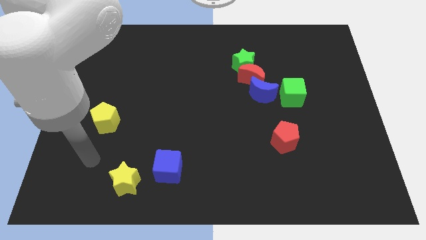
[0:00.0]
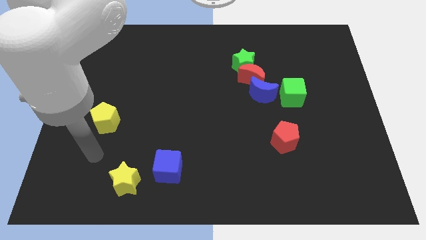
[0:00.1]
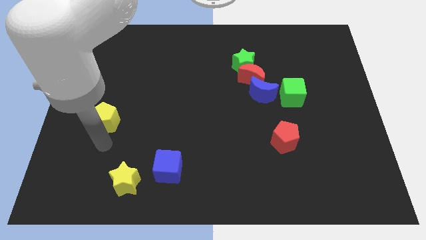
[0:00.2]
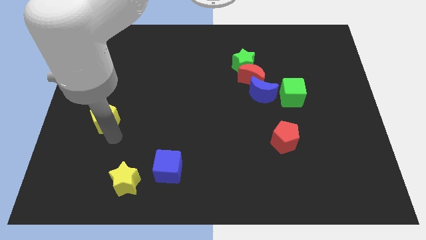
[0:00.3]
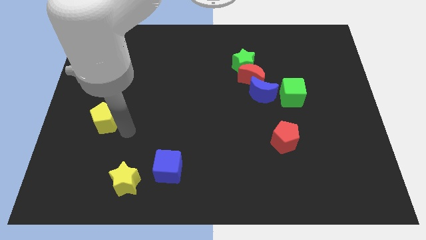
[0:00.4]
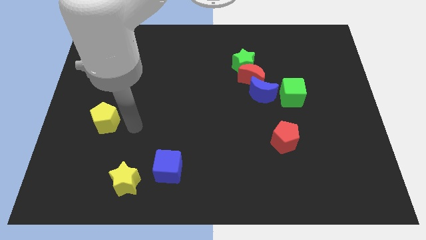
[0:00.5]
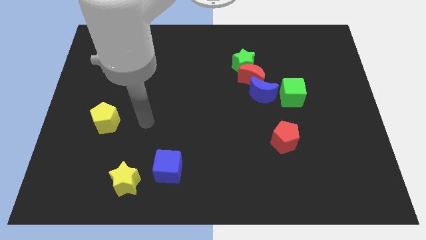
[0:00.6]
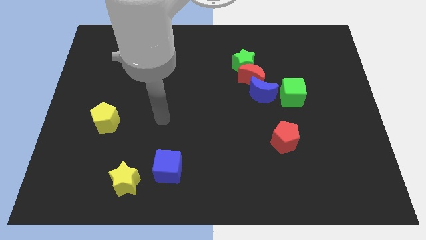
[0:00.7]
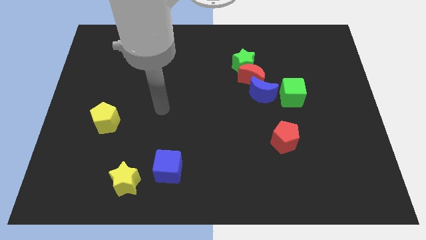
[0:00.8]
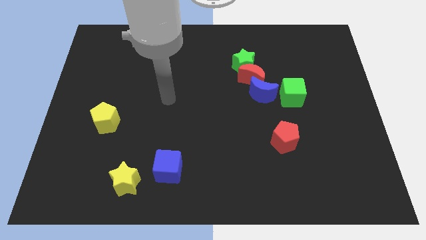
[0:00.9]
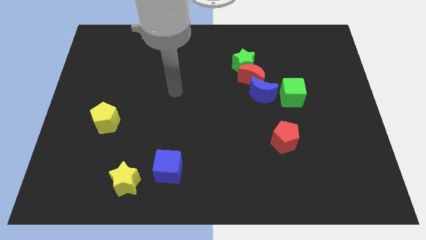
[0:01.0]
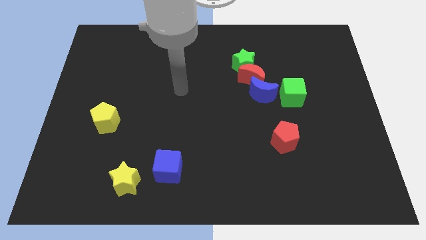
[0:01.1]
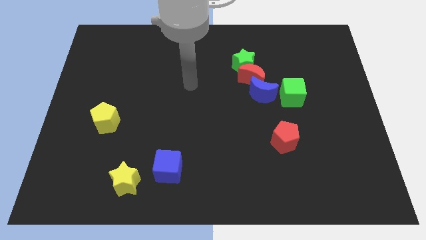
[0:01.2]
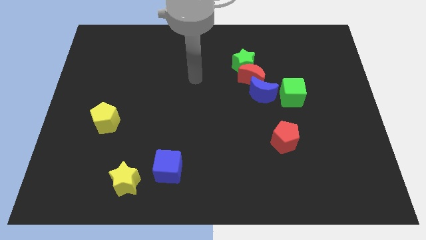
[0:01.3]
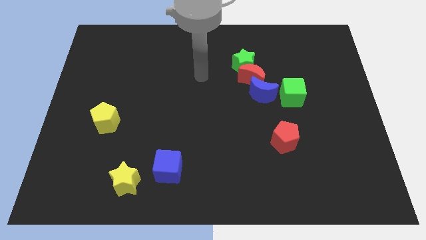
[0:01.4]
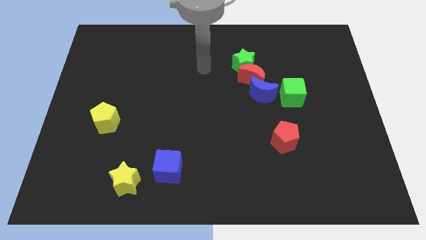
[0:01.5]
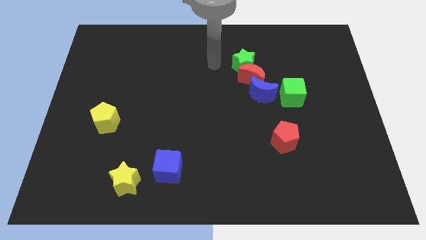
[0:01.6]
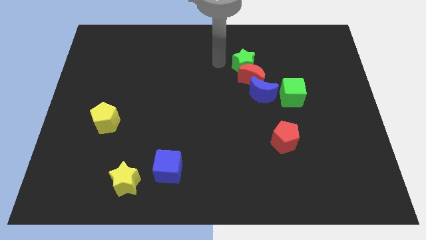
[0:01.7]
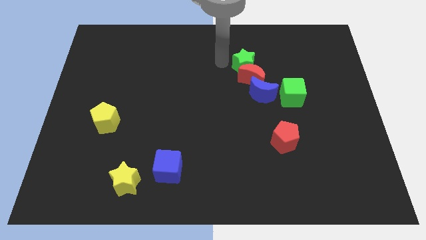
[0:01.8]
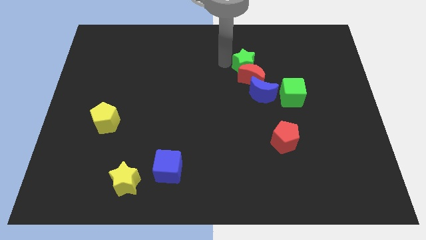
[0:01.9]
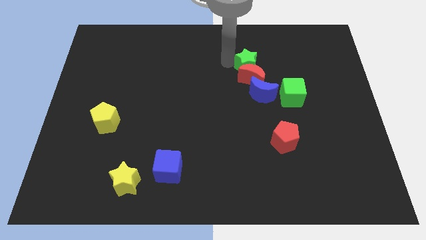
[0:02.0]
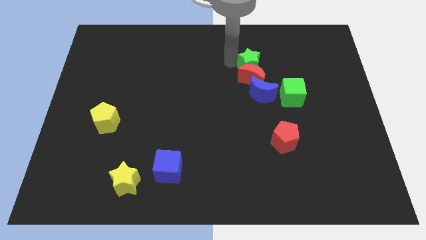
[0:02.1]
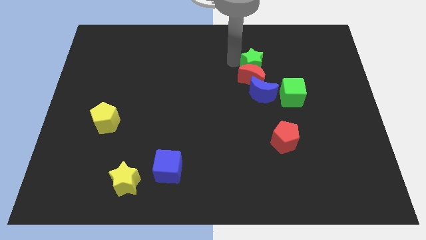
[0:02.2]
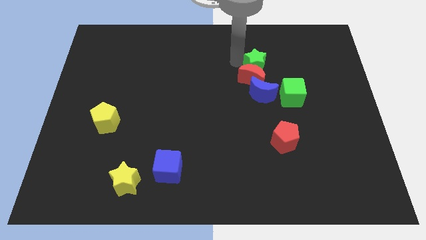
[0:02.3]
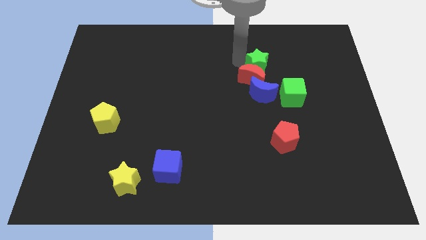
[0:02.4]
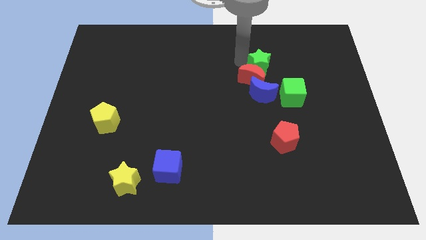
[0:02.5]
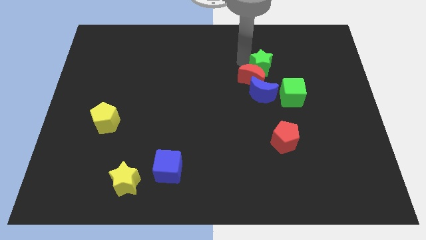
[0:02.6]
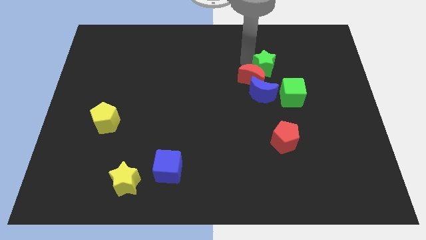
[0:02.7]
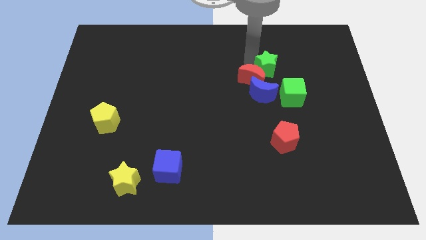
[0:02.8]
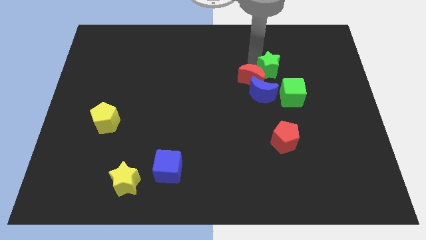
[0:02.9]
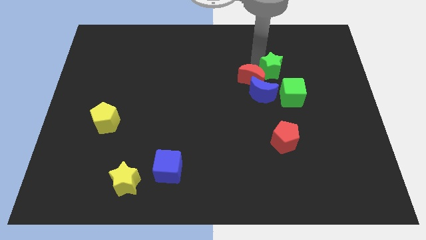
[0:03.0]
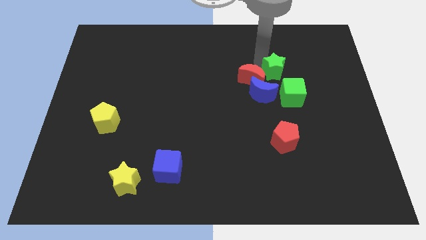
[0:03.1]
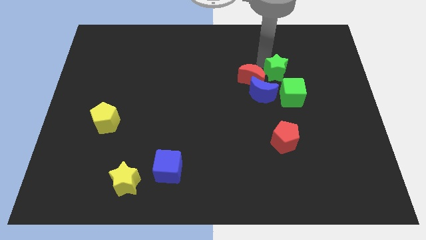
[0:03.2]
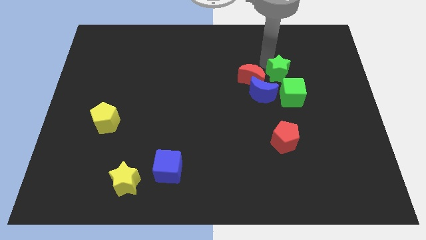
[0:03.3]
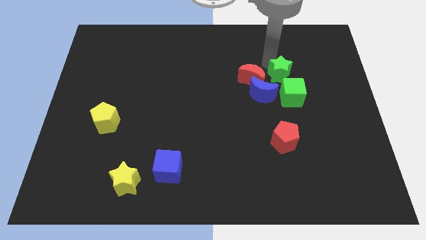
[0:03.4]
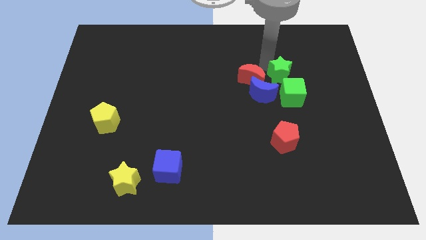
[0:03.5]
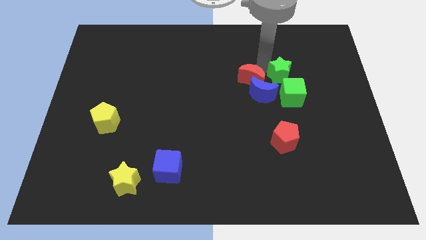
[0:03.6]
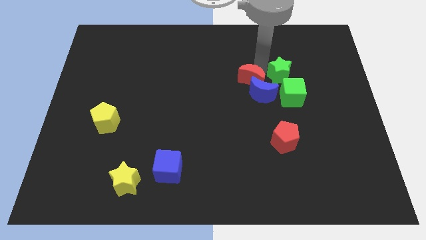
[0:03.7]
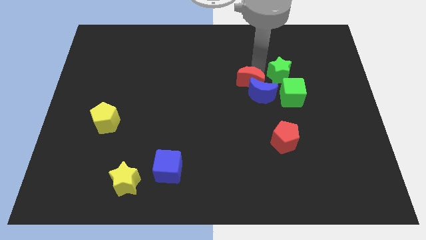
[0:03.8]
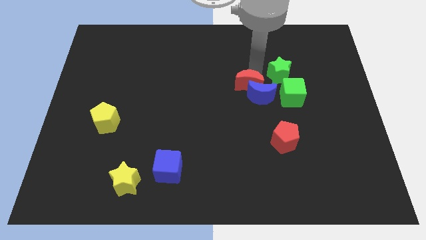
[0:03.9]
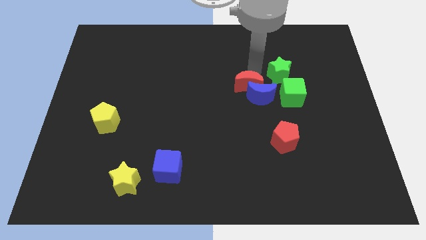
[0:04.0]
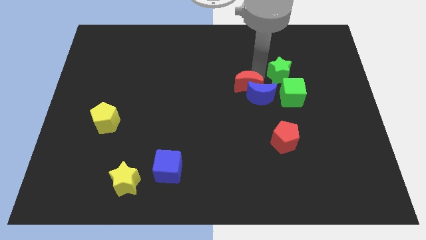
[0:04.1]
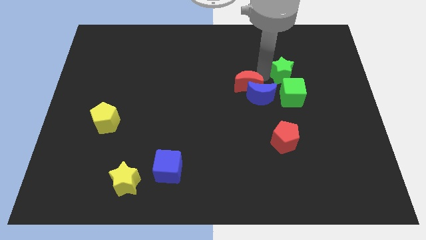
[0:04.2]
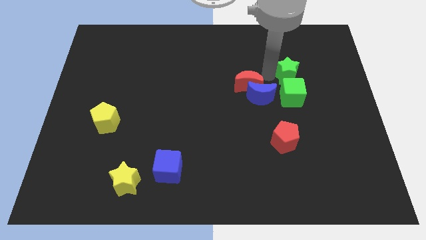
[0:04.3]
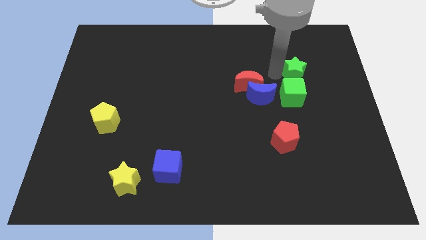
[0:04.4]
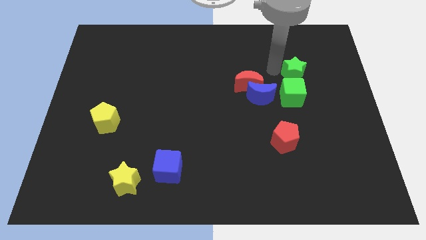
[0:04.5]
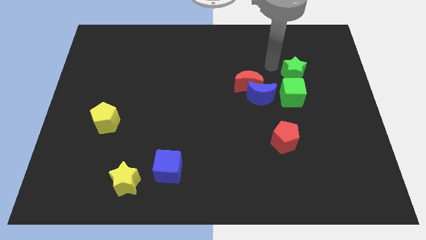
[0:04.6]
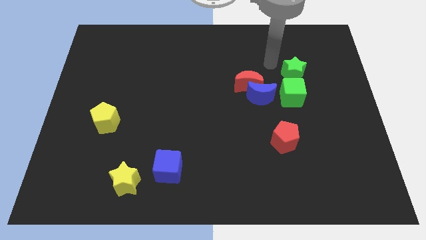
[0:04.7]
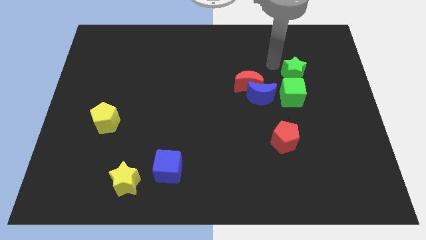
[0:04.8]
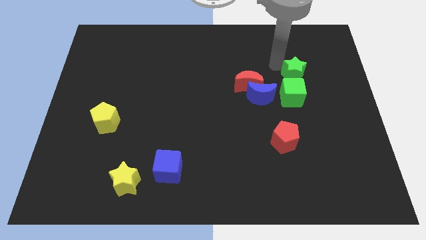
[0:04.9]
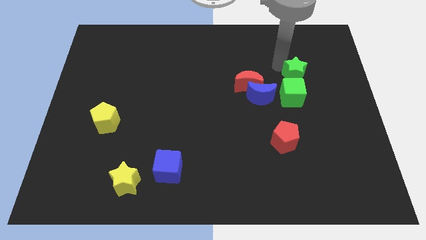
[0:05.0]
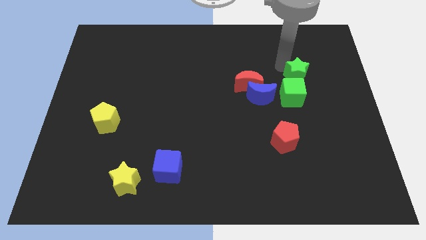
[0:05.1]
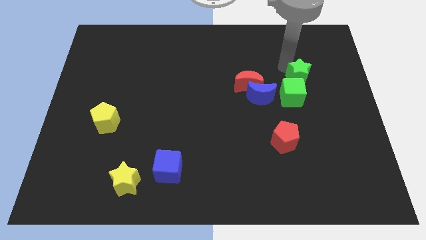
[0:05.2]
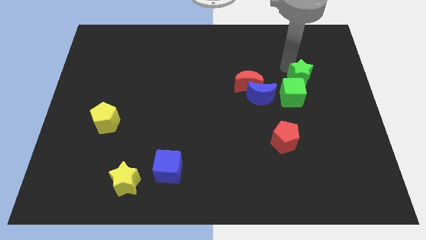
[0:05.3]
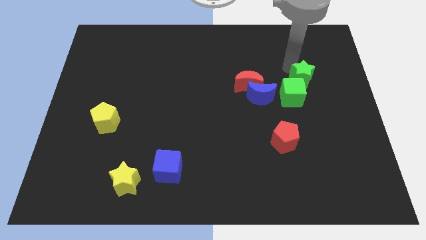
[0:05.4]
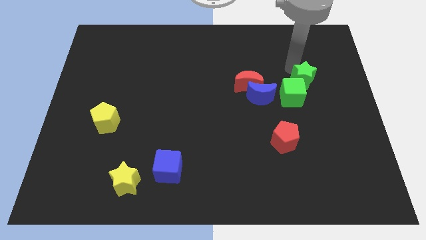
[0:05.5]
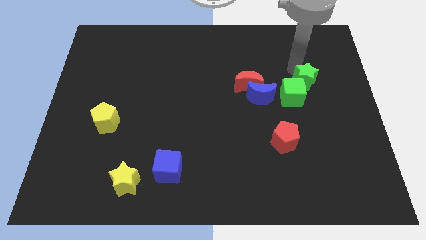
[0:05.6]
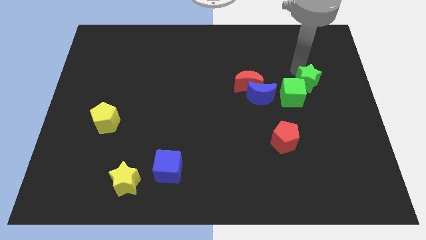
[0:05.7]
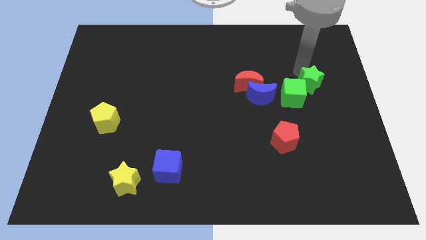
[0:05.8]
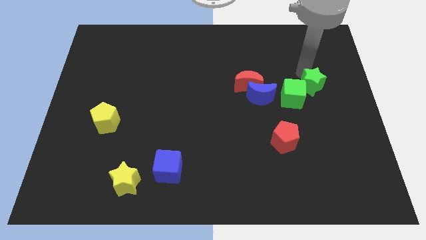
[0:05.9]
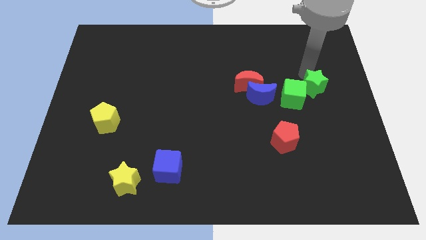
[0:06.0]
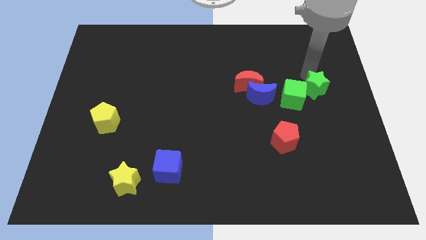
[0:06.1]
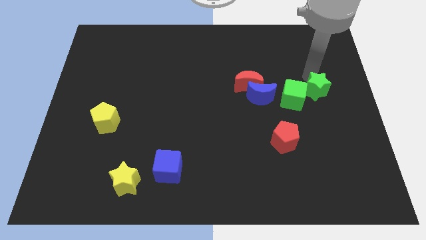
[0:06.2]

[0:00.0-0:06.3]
slide the green star to the right side

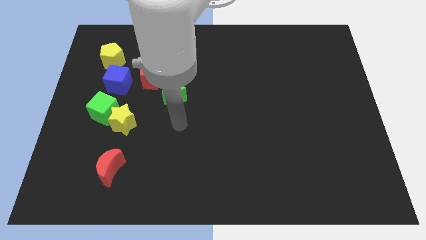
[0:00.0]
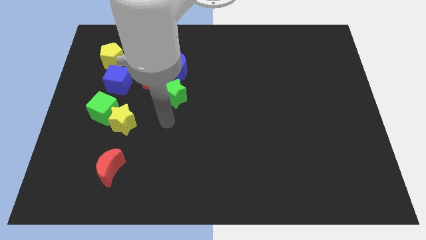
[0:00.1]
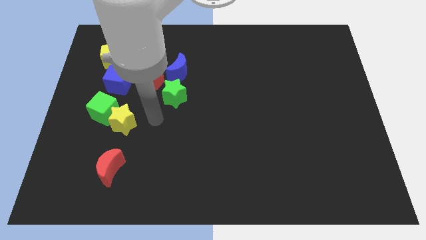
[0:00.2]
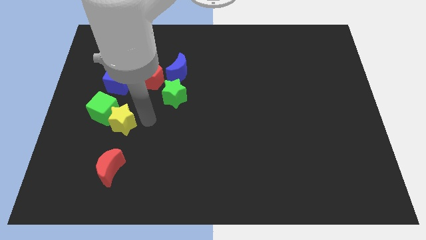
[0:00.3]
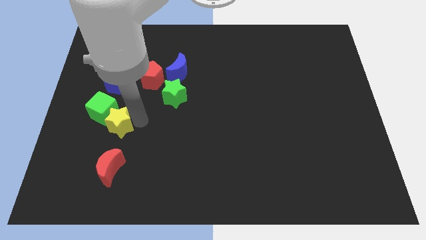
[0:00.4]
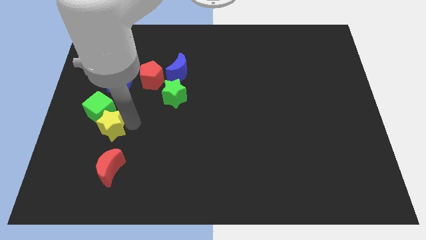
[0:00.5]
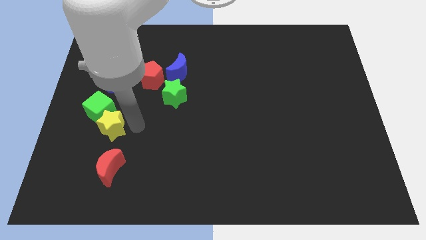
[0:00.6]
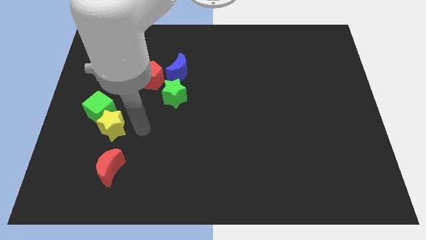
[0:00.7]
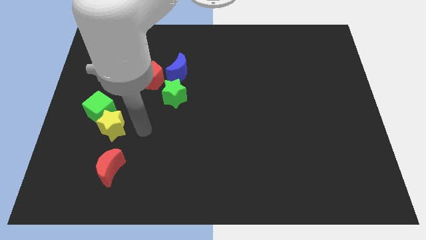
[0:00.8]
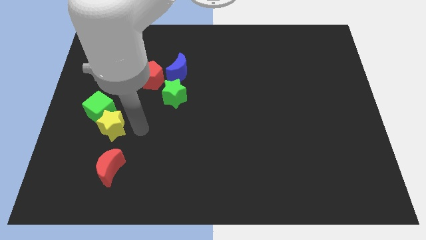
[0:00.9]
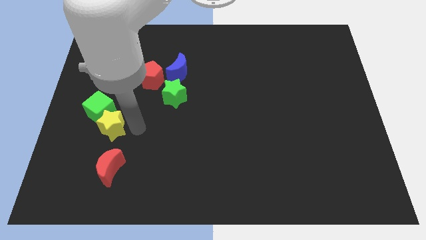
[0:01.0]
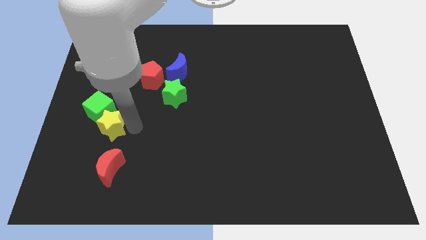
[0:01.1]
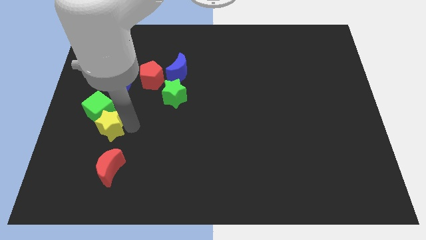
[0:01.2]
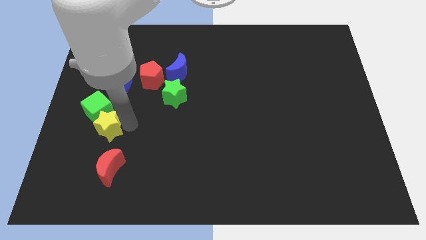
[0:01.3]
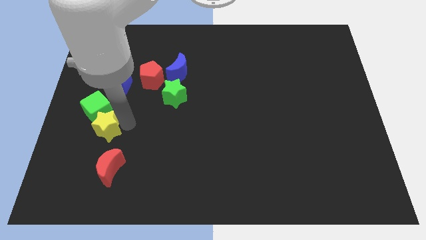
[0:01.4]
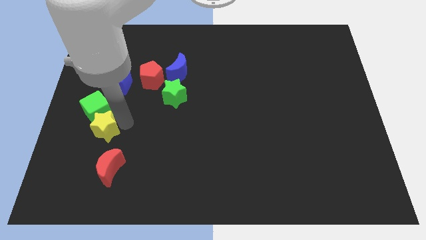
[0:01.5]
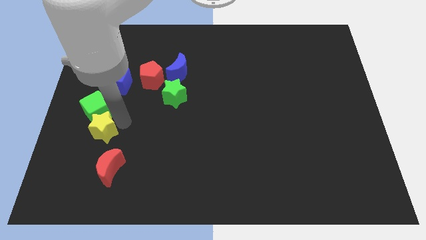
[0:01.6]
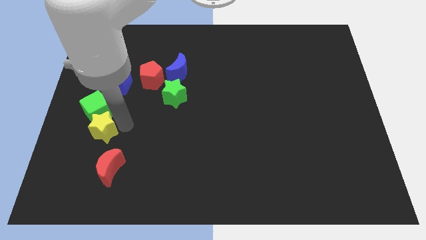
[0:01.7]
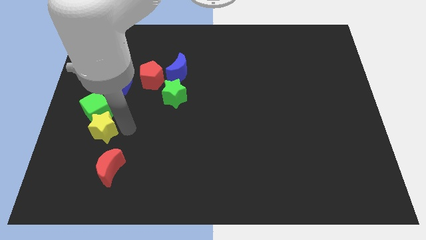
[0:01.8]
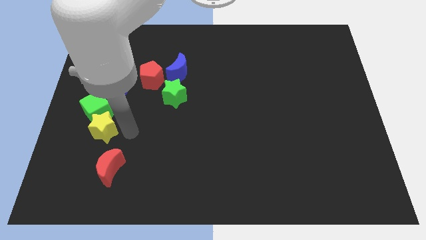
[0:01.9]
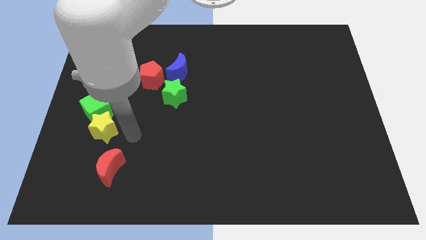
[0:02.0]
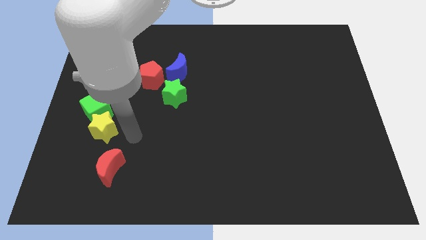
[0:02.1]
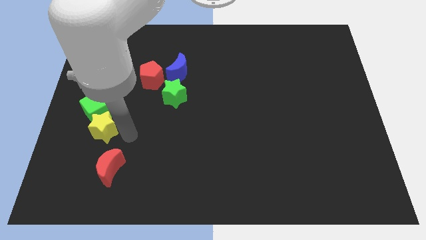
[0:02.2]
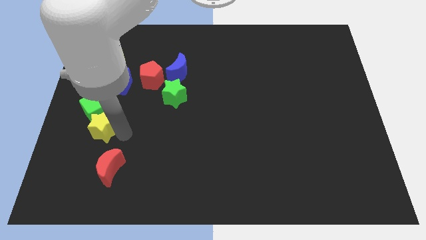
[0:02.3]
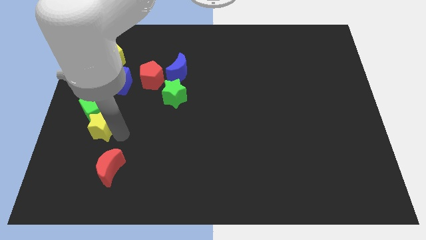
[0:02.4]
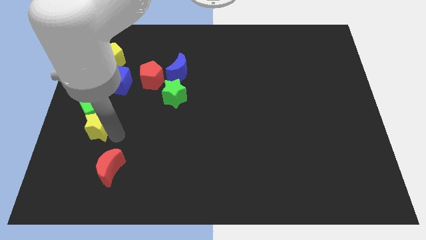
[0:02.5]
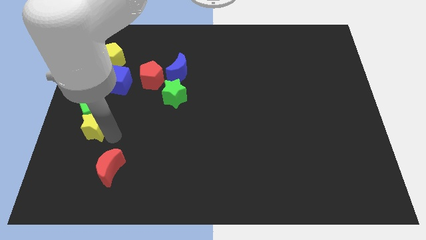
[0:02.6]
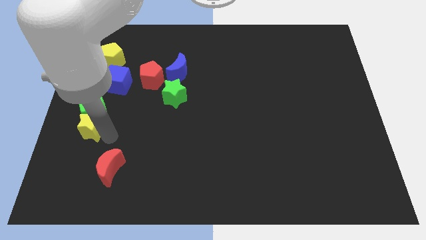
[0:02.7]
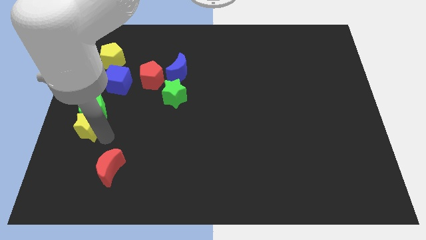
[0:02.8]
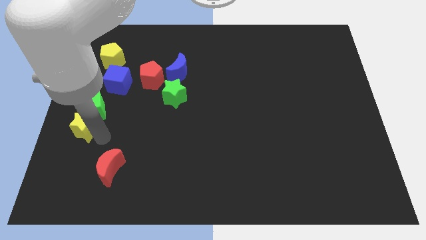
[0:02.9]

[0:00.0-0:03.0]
put the yellow star to the center left
